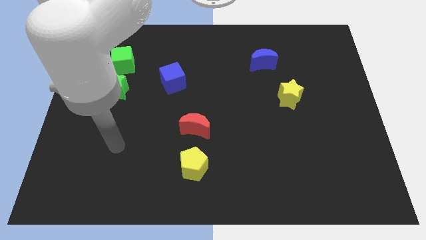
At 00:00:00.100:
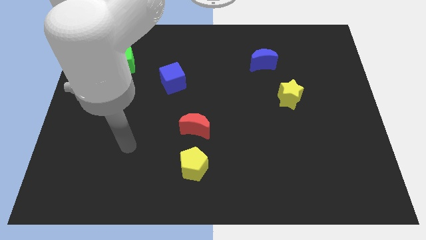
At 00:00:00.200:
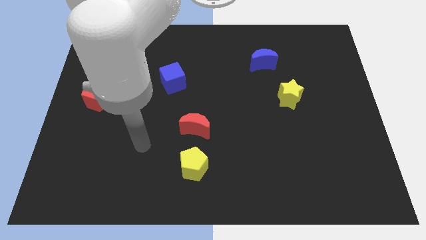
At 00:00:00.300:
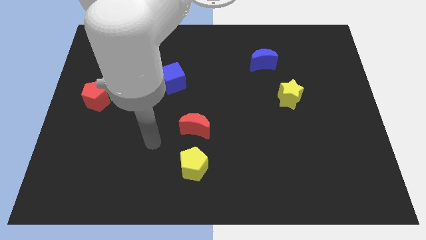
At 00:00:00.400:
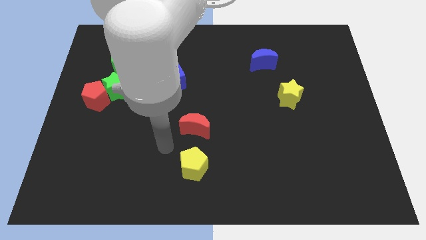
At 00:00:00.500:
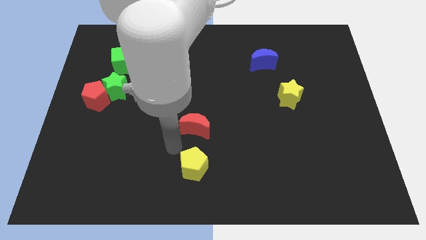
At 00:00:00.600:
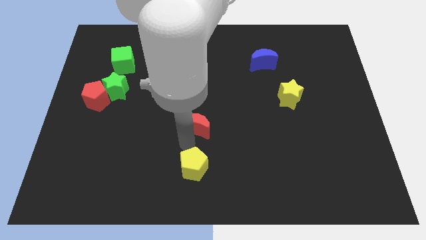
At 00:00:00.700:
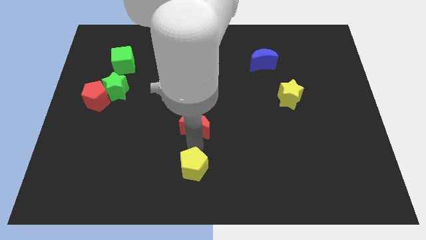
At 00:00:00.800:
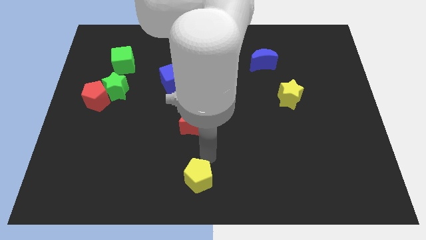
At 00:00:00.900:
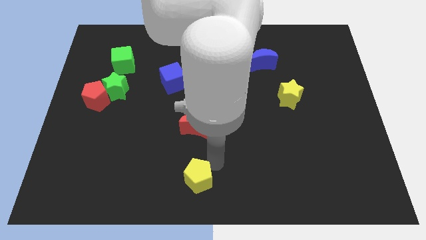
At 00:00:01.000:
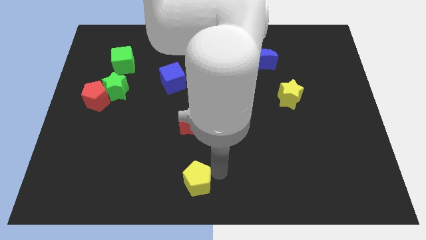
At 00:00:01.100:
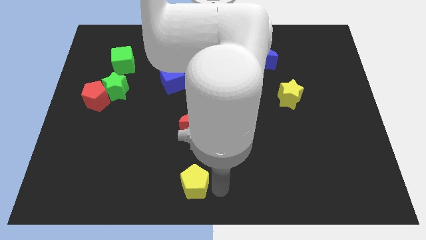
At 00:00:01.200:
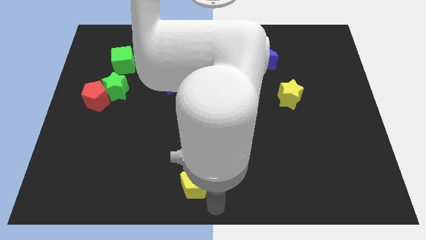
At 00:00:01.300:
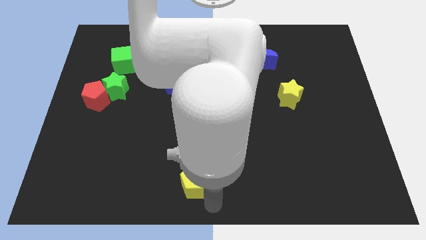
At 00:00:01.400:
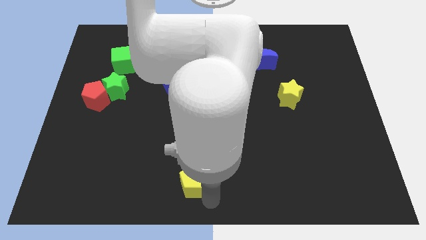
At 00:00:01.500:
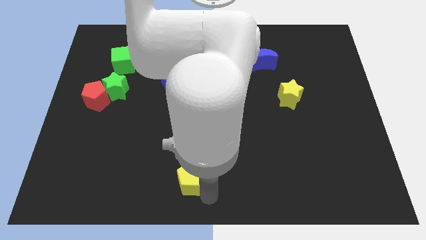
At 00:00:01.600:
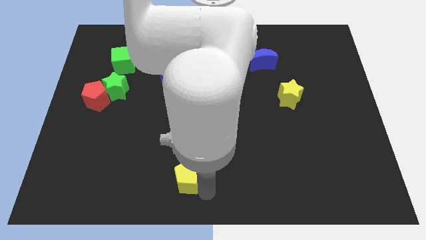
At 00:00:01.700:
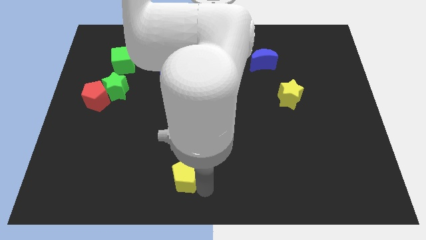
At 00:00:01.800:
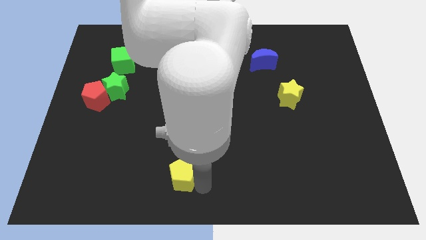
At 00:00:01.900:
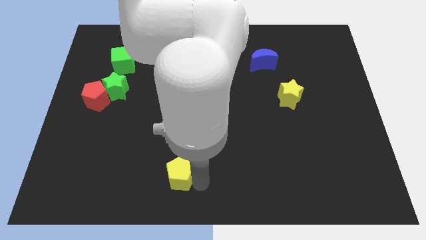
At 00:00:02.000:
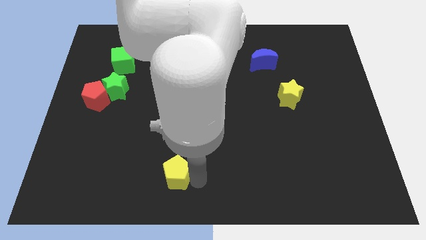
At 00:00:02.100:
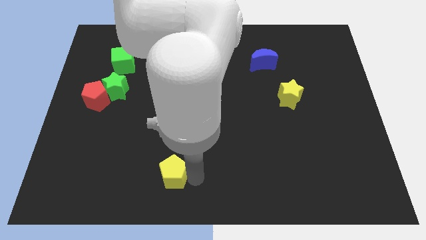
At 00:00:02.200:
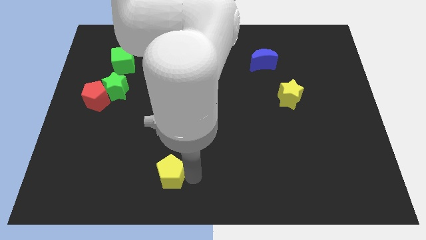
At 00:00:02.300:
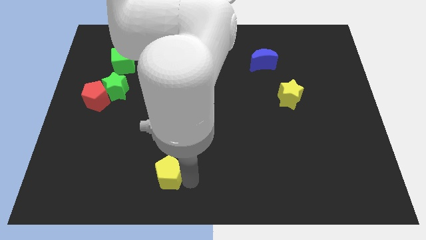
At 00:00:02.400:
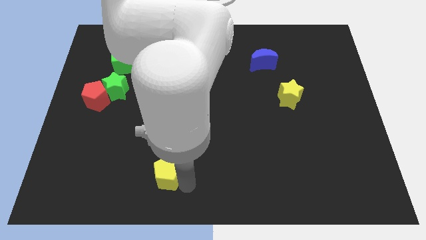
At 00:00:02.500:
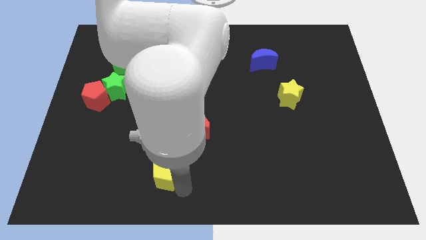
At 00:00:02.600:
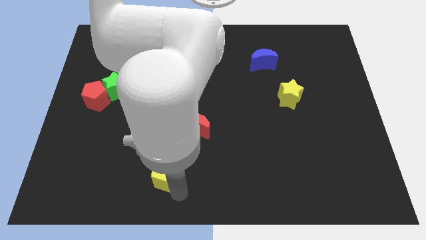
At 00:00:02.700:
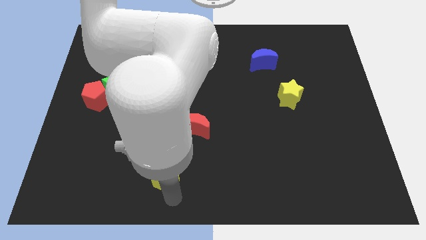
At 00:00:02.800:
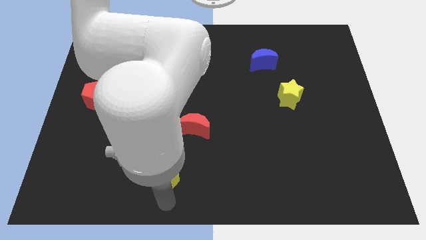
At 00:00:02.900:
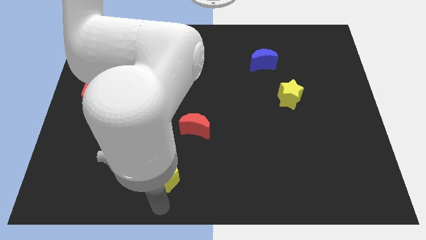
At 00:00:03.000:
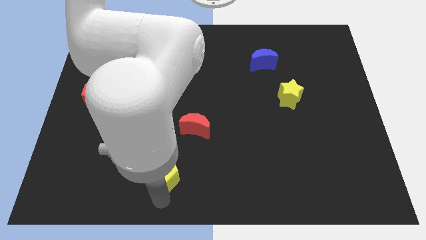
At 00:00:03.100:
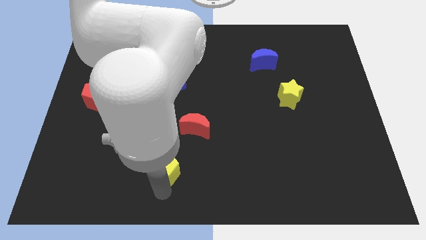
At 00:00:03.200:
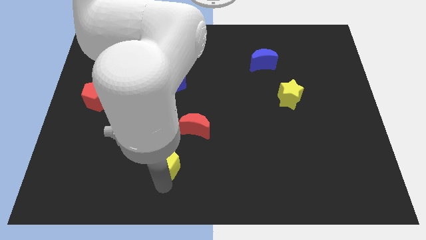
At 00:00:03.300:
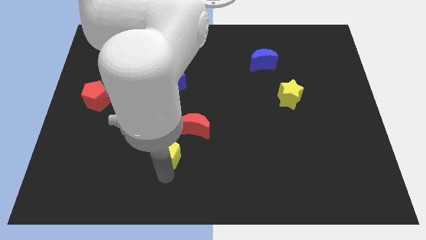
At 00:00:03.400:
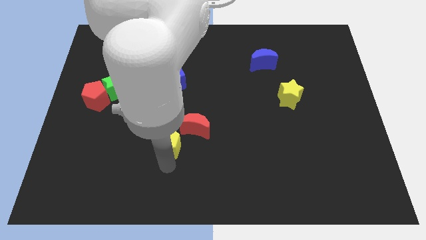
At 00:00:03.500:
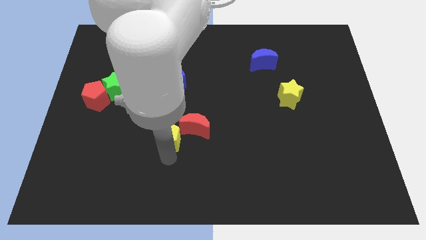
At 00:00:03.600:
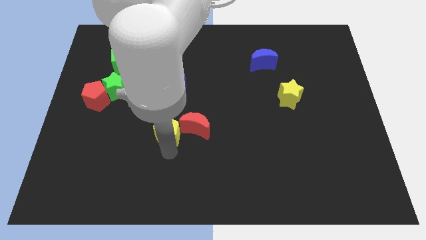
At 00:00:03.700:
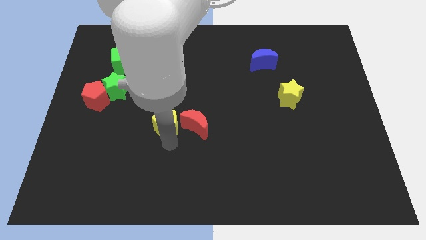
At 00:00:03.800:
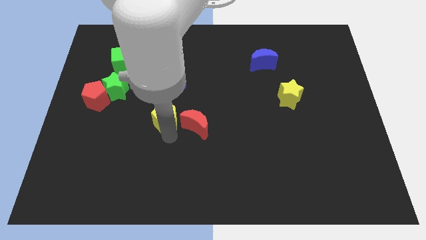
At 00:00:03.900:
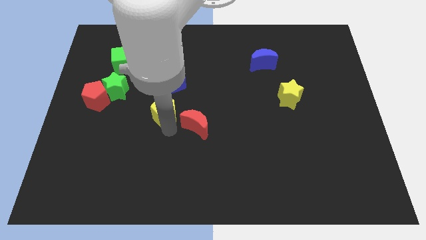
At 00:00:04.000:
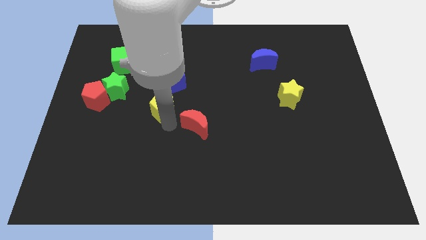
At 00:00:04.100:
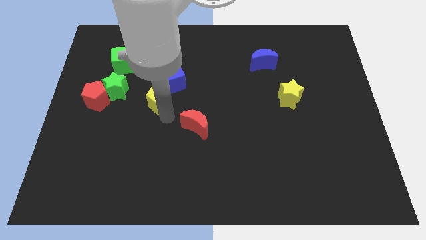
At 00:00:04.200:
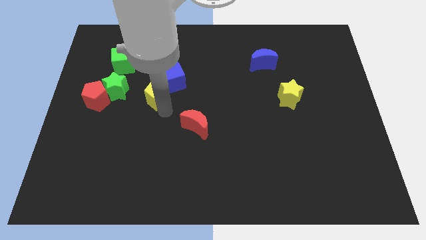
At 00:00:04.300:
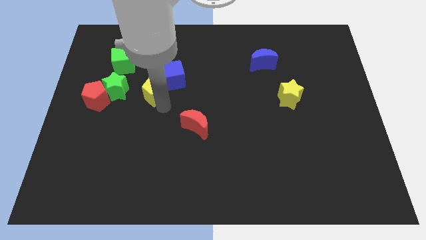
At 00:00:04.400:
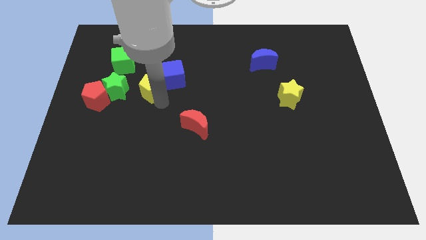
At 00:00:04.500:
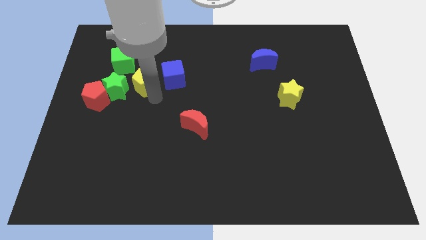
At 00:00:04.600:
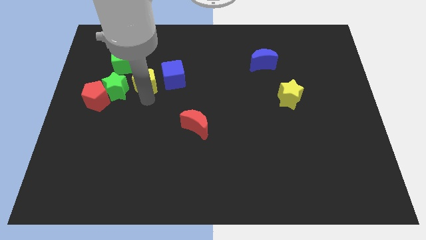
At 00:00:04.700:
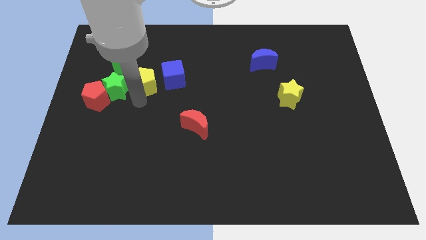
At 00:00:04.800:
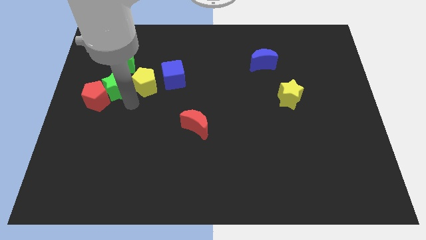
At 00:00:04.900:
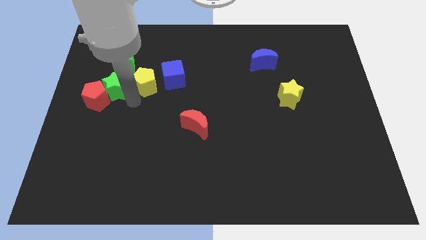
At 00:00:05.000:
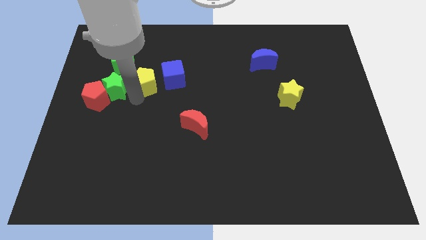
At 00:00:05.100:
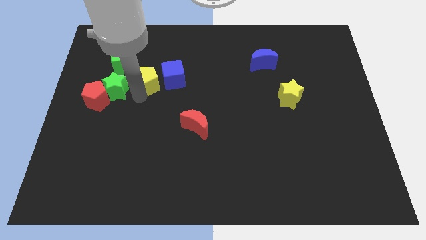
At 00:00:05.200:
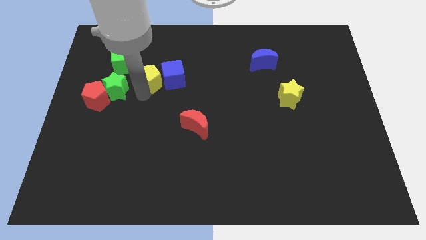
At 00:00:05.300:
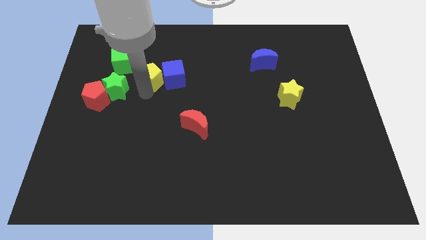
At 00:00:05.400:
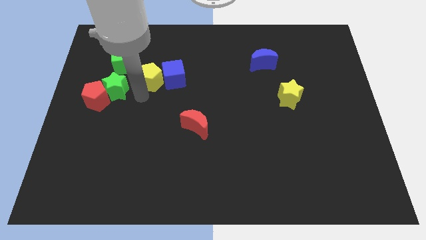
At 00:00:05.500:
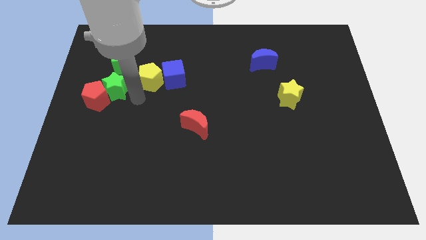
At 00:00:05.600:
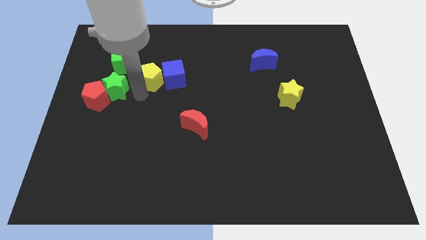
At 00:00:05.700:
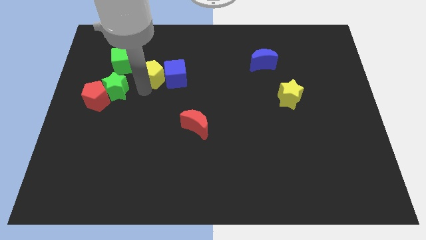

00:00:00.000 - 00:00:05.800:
push the yellow pentagon to the right side of the green cube

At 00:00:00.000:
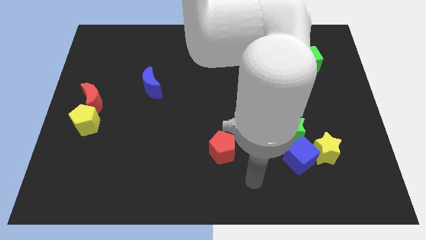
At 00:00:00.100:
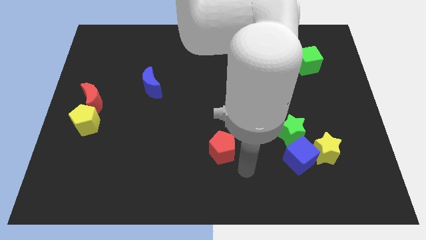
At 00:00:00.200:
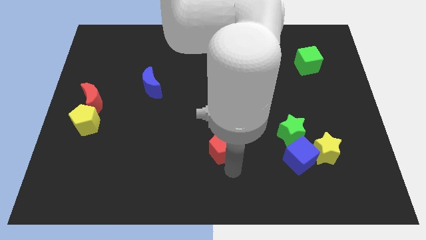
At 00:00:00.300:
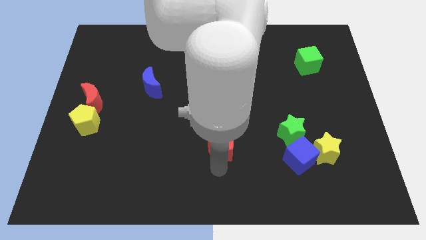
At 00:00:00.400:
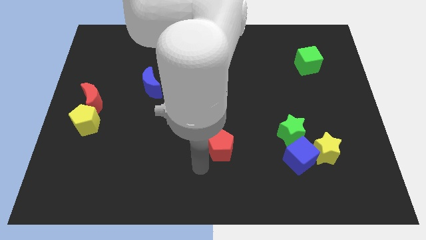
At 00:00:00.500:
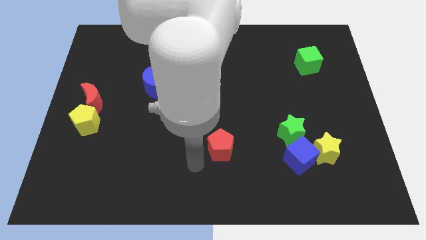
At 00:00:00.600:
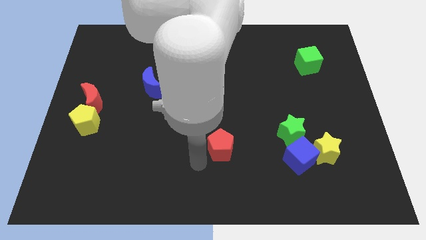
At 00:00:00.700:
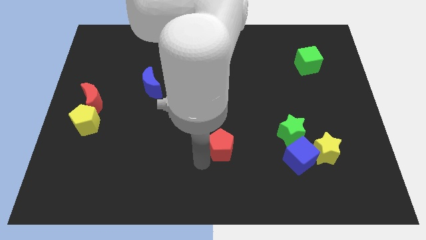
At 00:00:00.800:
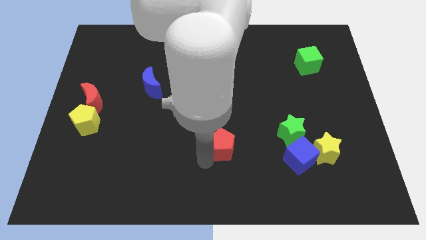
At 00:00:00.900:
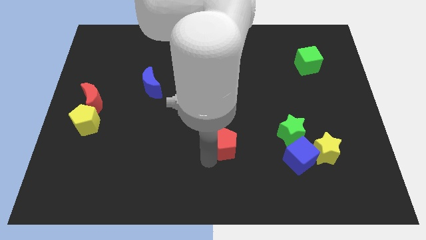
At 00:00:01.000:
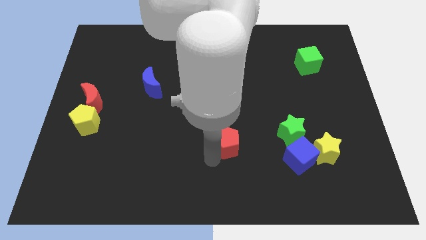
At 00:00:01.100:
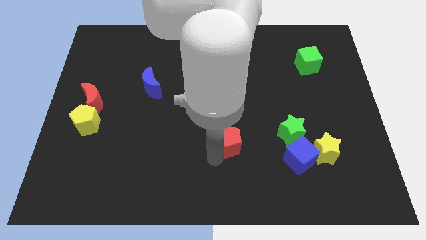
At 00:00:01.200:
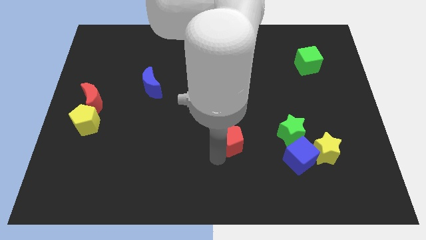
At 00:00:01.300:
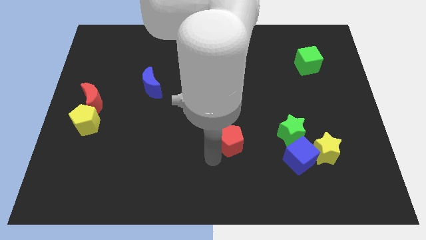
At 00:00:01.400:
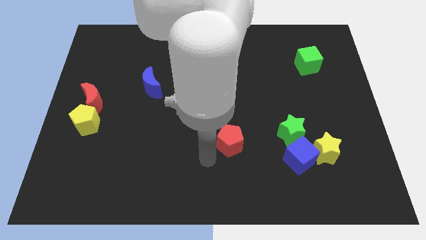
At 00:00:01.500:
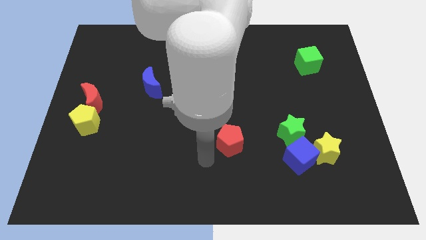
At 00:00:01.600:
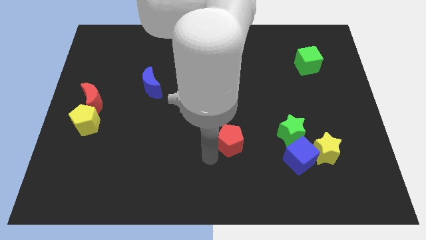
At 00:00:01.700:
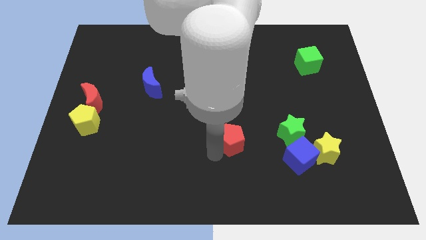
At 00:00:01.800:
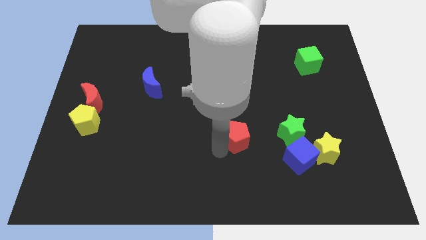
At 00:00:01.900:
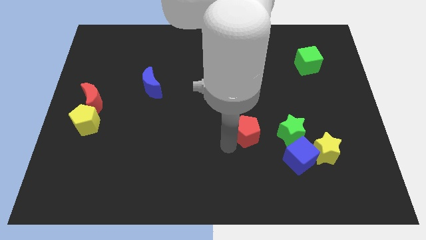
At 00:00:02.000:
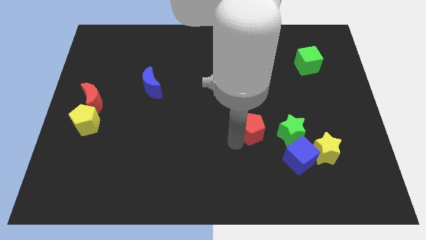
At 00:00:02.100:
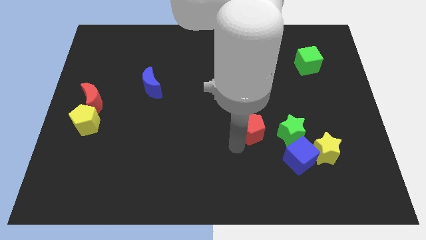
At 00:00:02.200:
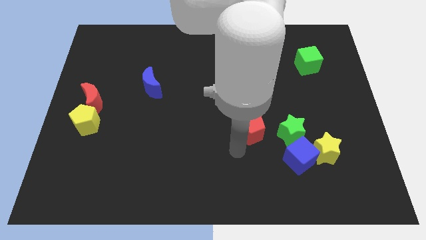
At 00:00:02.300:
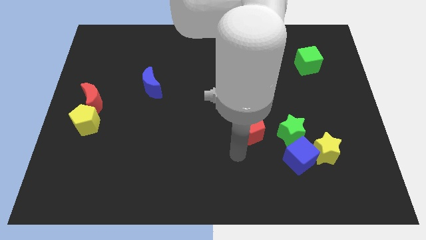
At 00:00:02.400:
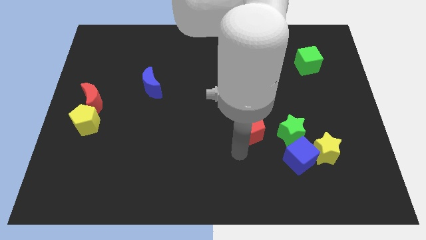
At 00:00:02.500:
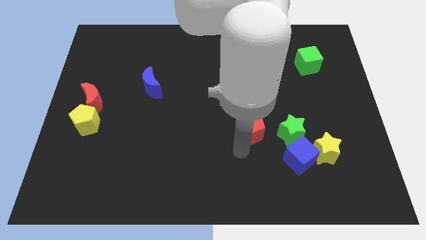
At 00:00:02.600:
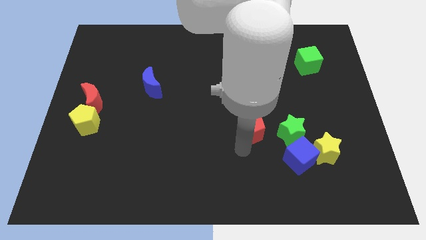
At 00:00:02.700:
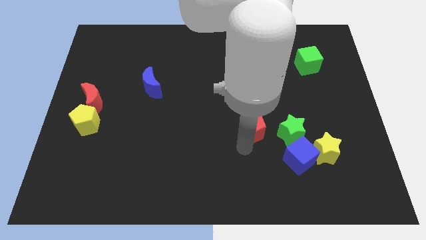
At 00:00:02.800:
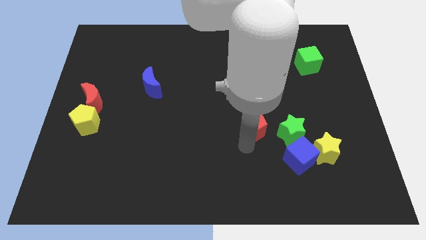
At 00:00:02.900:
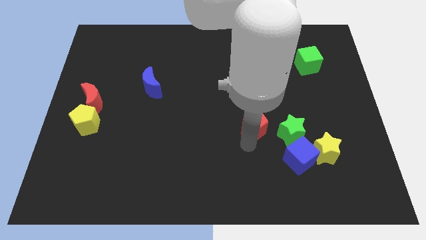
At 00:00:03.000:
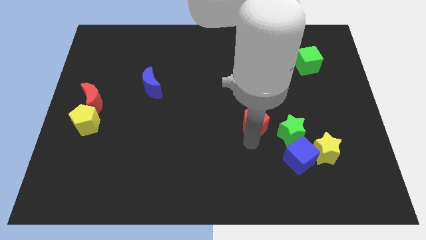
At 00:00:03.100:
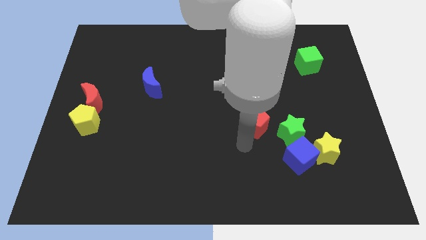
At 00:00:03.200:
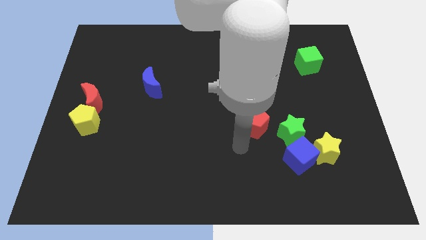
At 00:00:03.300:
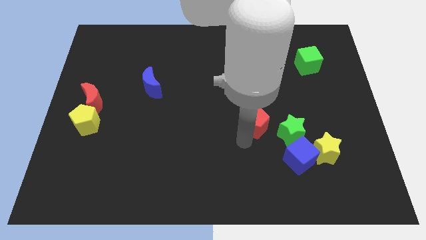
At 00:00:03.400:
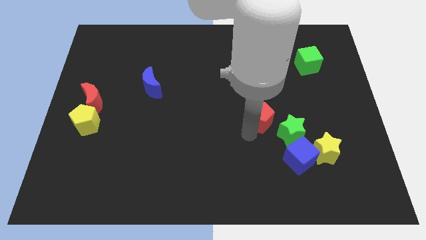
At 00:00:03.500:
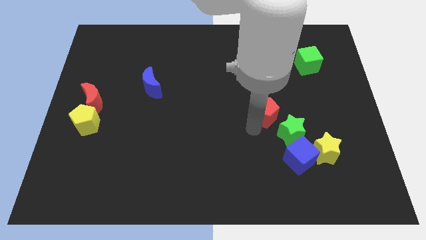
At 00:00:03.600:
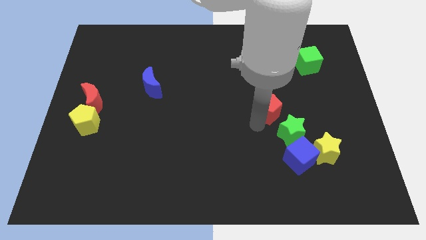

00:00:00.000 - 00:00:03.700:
move the red pentagon to the top of the green star
